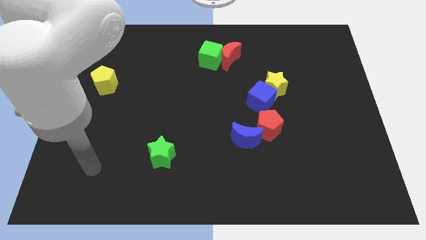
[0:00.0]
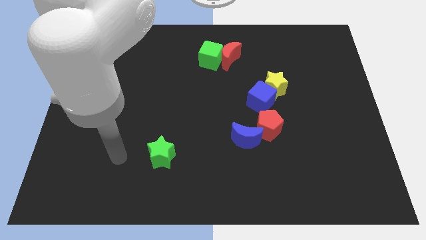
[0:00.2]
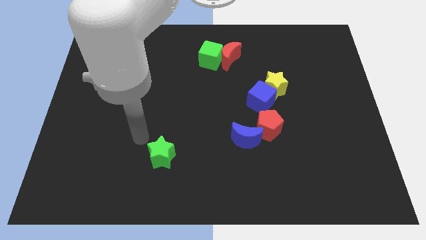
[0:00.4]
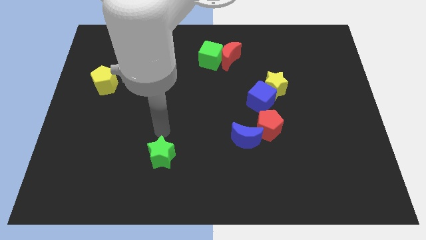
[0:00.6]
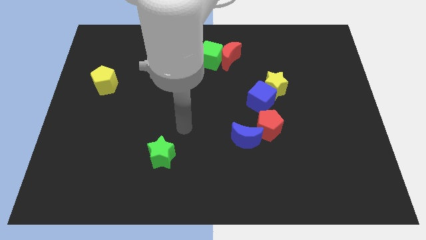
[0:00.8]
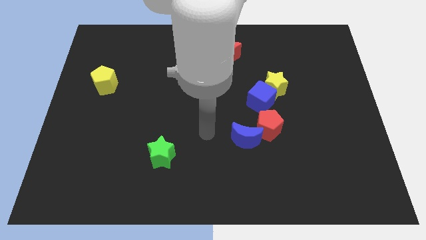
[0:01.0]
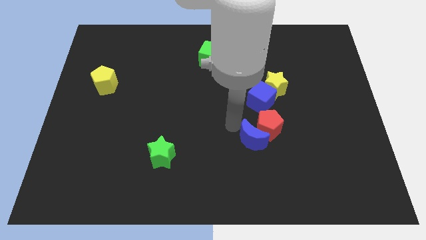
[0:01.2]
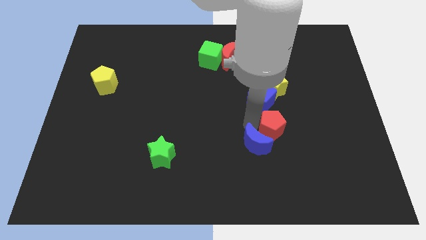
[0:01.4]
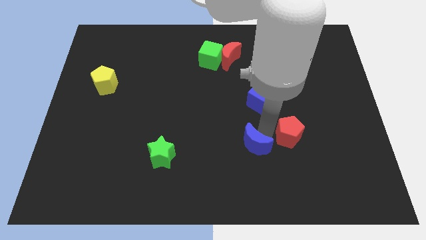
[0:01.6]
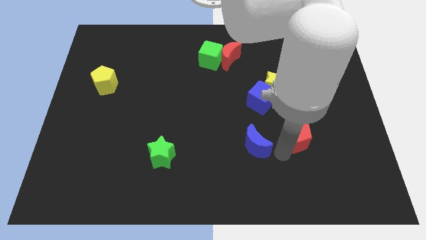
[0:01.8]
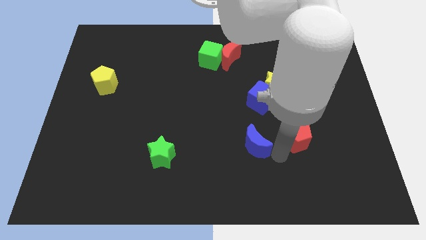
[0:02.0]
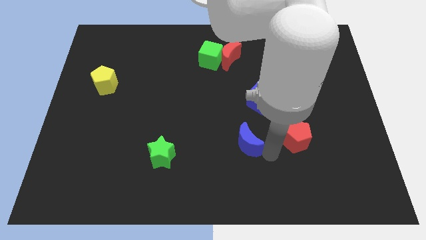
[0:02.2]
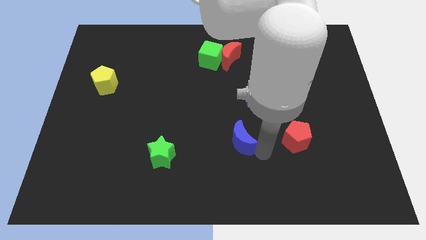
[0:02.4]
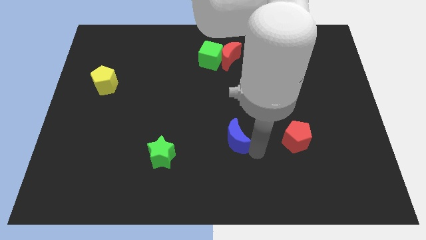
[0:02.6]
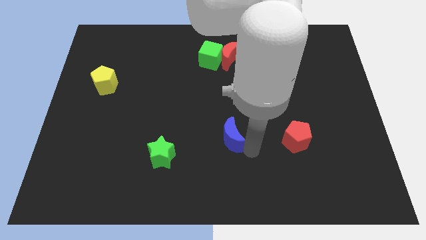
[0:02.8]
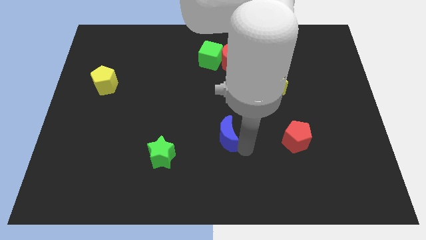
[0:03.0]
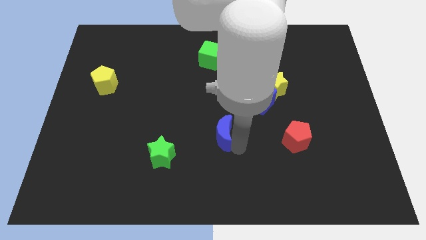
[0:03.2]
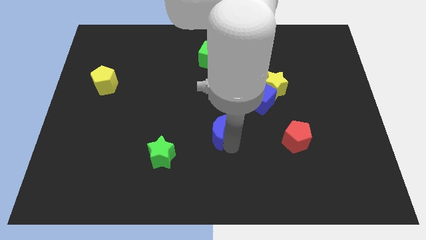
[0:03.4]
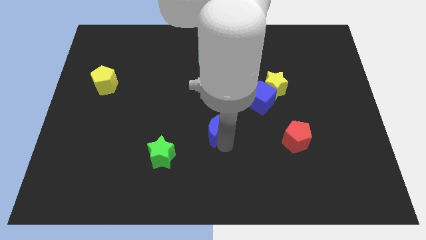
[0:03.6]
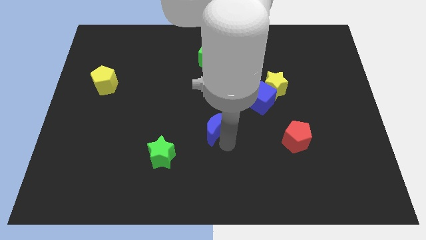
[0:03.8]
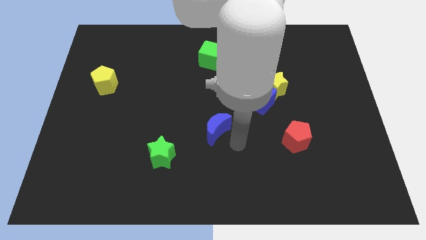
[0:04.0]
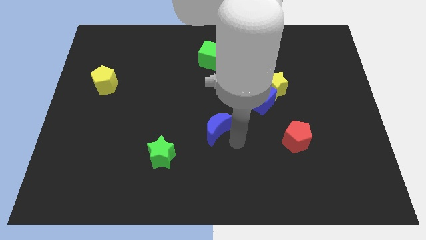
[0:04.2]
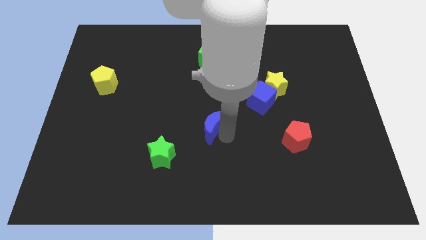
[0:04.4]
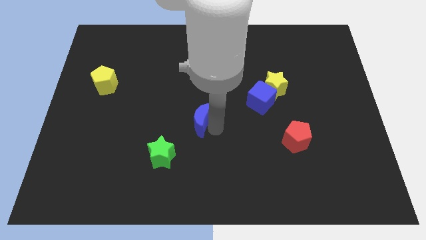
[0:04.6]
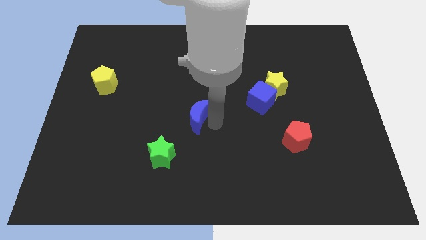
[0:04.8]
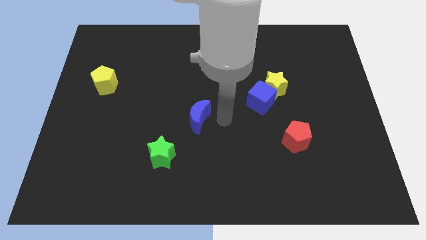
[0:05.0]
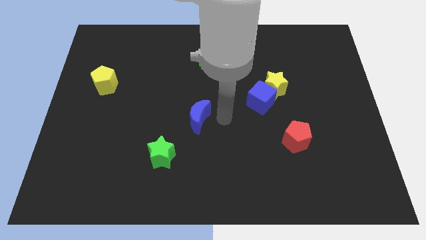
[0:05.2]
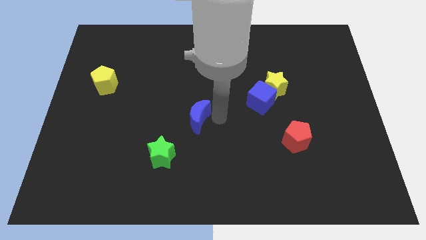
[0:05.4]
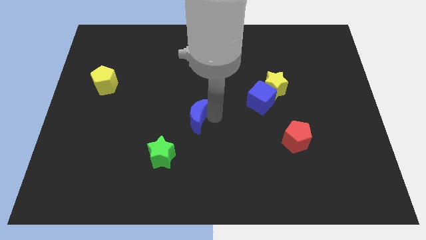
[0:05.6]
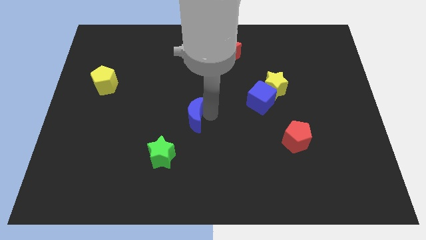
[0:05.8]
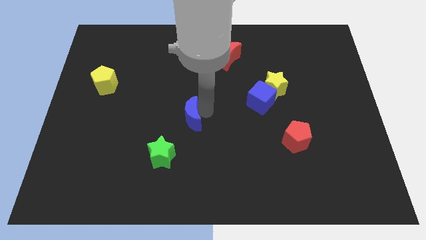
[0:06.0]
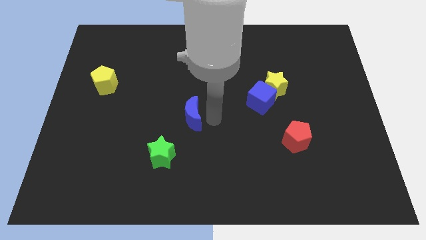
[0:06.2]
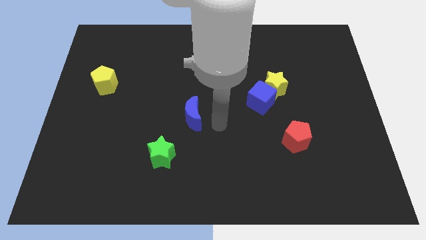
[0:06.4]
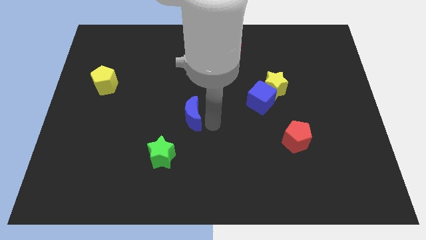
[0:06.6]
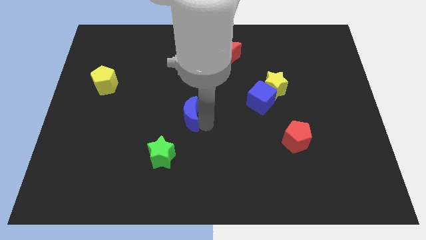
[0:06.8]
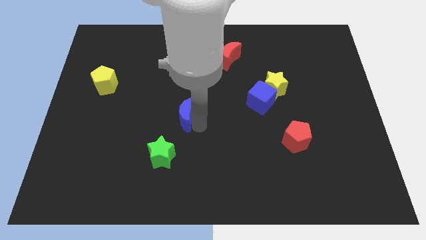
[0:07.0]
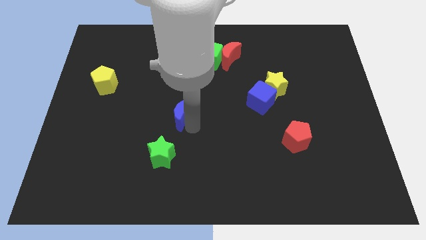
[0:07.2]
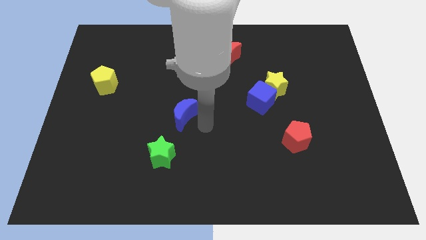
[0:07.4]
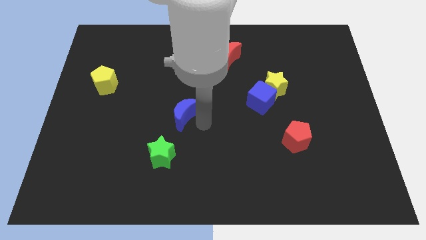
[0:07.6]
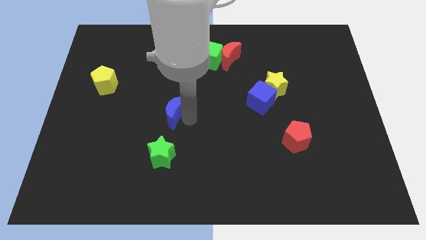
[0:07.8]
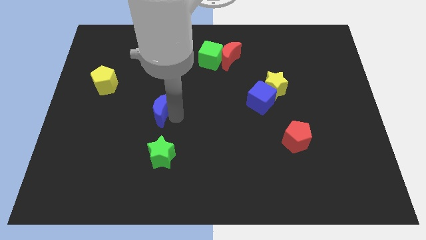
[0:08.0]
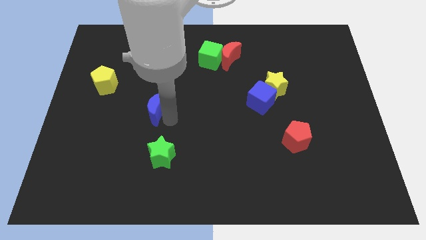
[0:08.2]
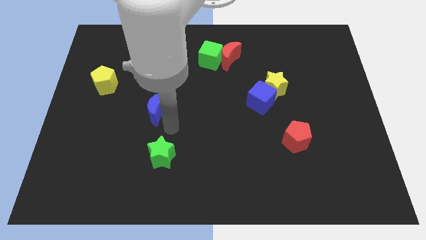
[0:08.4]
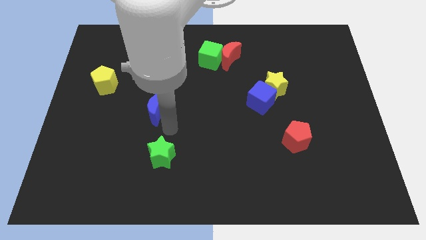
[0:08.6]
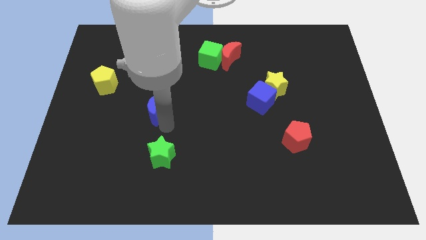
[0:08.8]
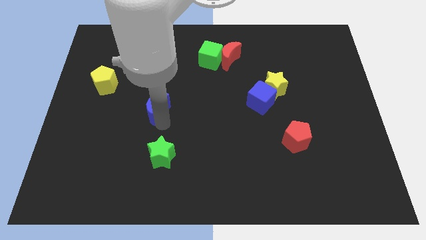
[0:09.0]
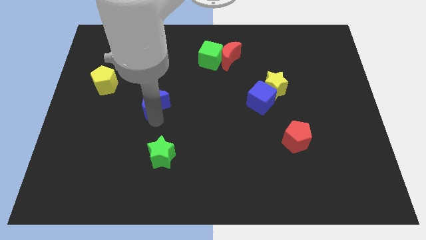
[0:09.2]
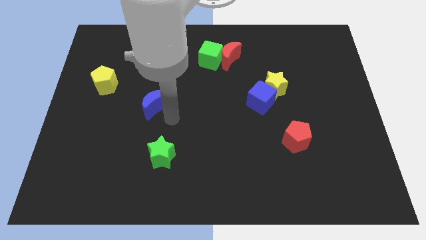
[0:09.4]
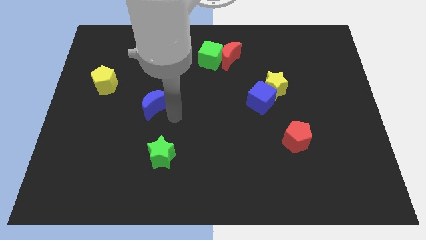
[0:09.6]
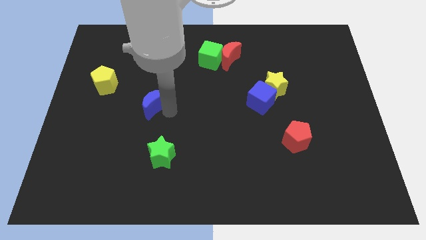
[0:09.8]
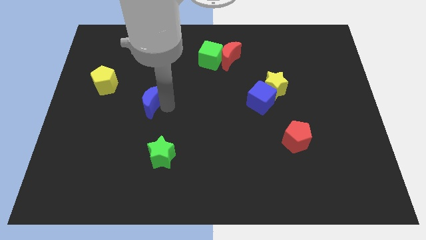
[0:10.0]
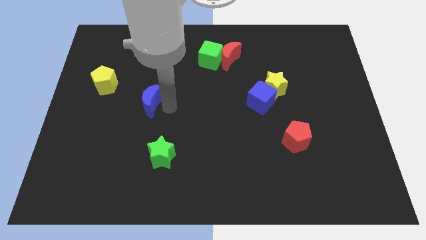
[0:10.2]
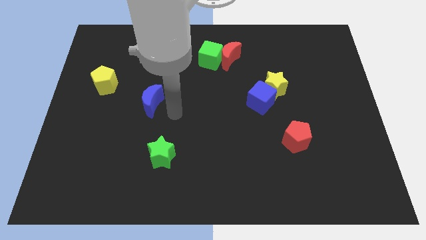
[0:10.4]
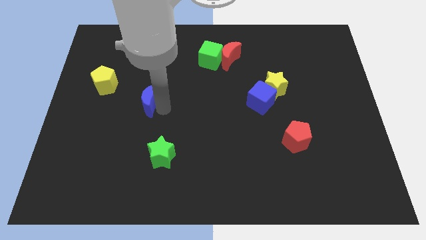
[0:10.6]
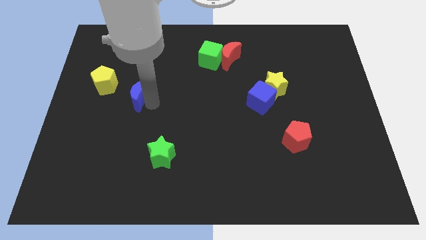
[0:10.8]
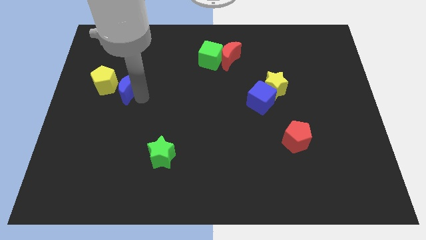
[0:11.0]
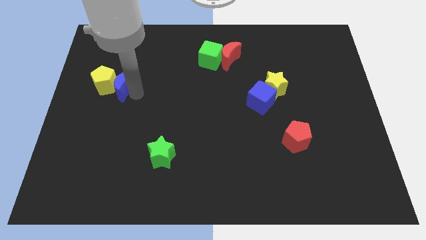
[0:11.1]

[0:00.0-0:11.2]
push the blue moon close to the yellow pentagon

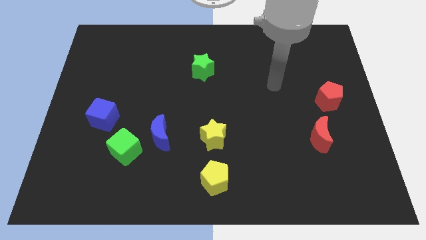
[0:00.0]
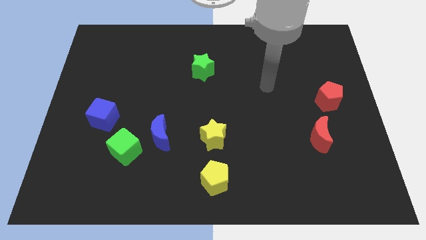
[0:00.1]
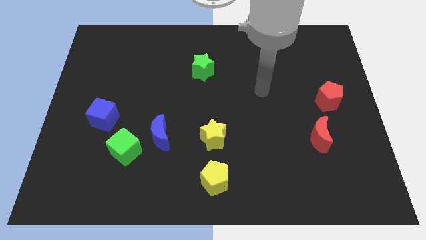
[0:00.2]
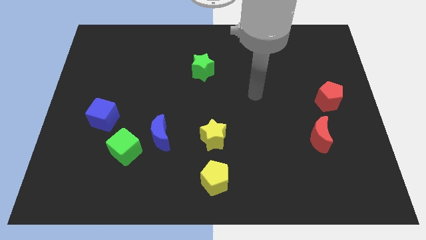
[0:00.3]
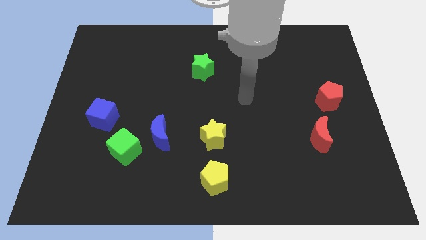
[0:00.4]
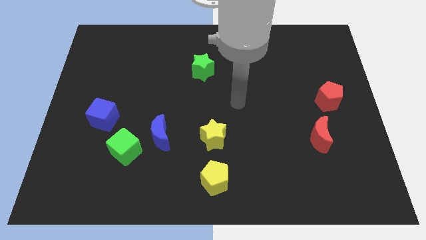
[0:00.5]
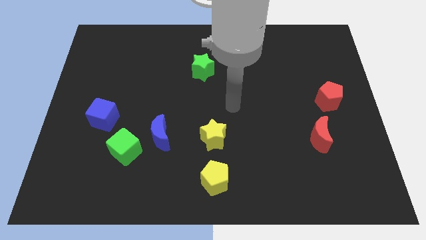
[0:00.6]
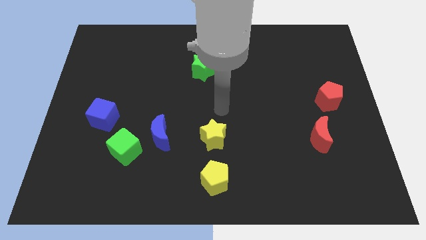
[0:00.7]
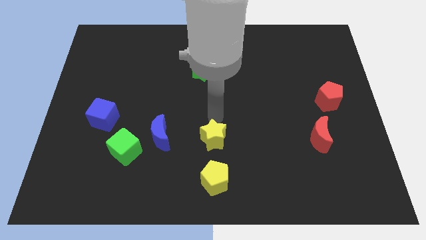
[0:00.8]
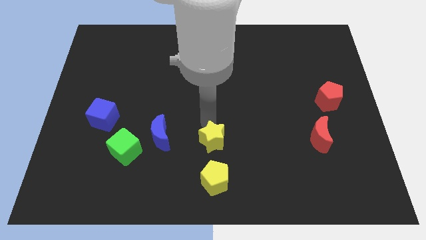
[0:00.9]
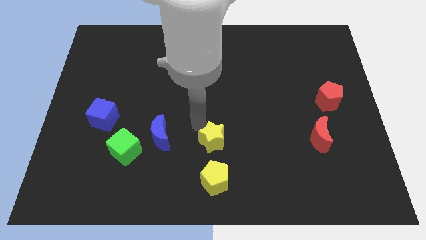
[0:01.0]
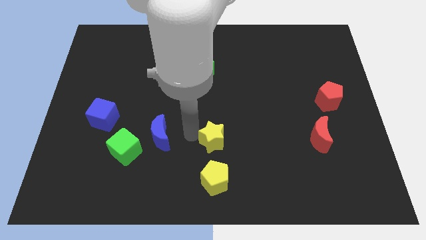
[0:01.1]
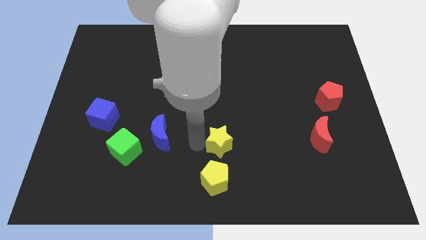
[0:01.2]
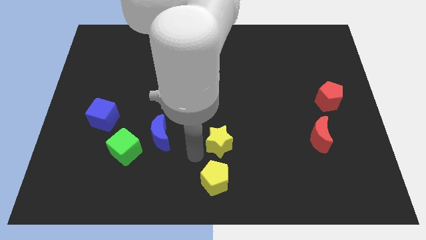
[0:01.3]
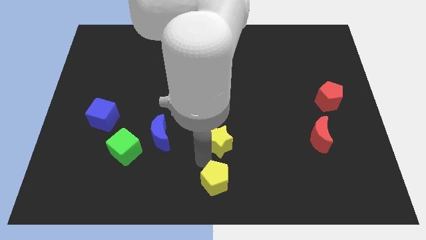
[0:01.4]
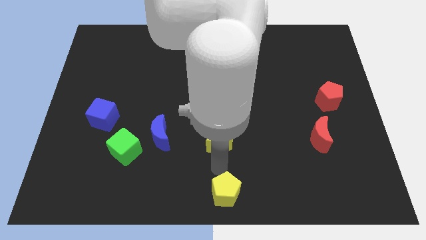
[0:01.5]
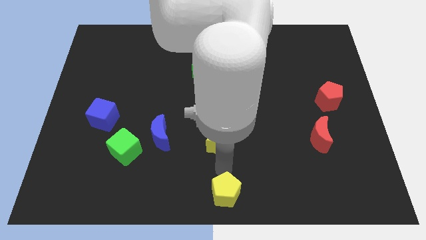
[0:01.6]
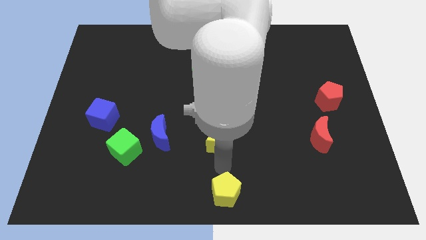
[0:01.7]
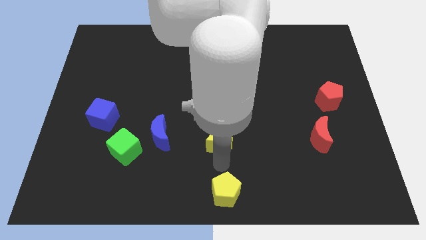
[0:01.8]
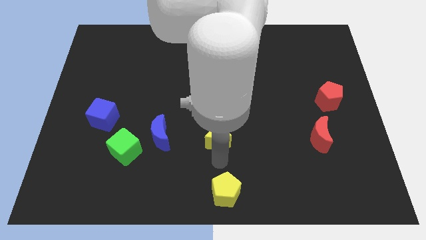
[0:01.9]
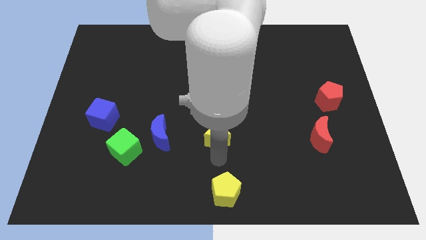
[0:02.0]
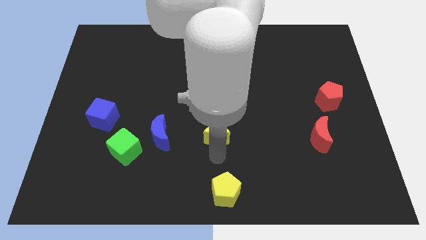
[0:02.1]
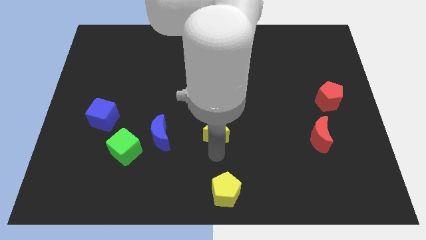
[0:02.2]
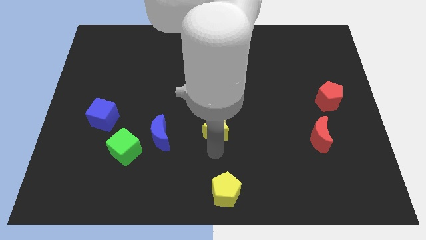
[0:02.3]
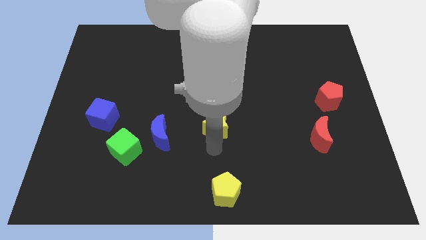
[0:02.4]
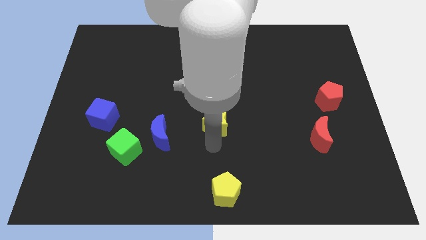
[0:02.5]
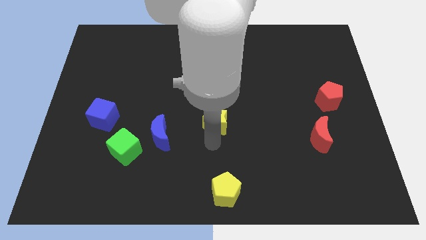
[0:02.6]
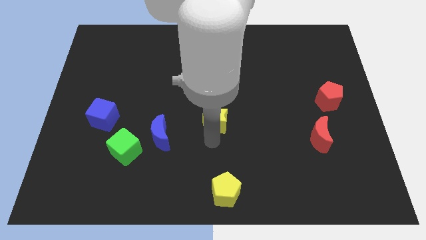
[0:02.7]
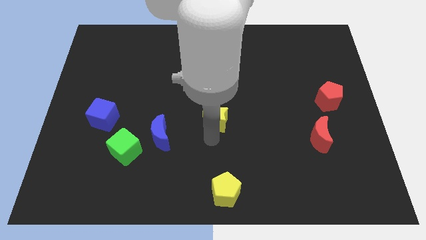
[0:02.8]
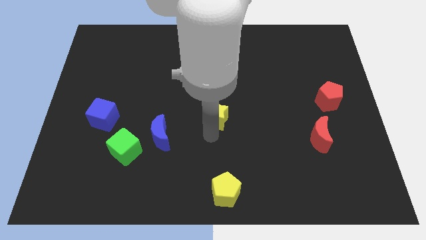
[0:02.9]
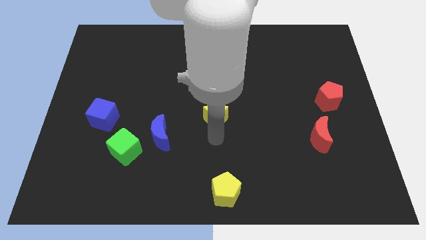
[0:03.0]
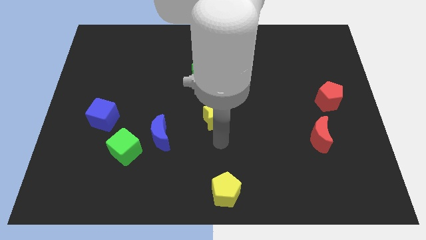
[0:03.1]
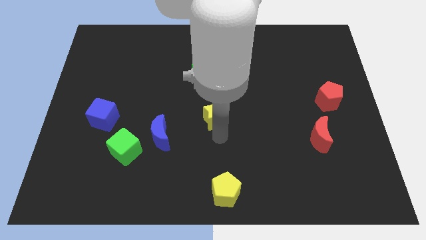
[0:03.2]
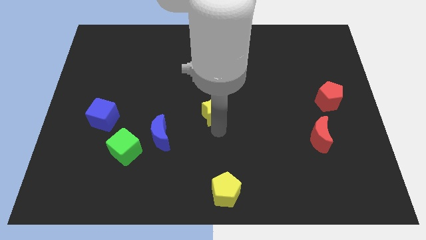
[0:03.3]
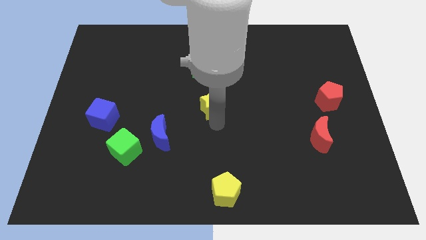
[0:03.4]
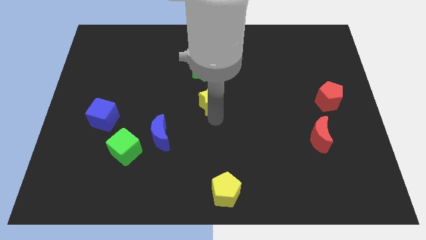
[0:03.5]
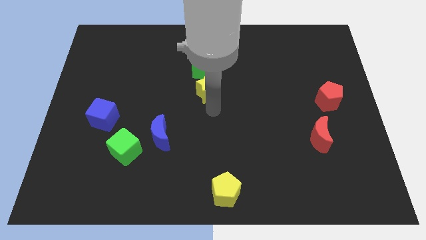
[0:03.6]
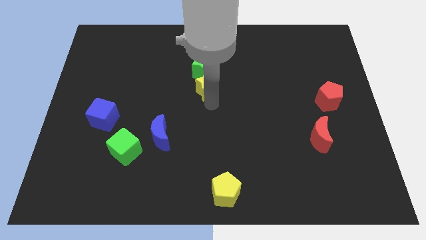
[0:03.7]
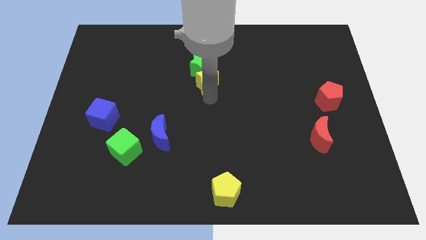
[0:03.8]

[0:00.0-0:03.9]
push the yellow star to the green star
